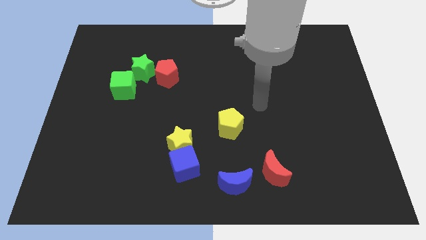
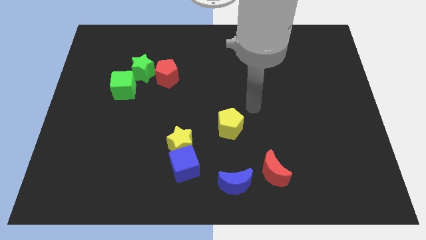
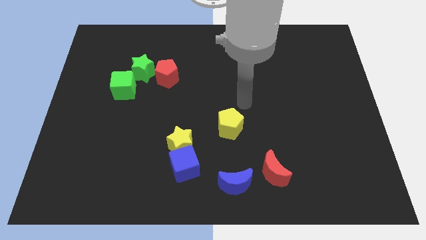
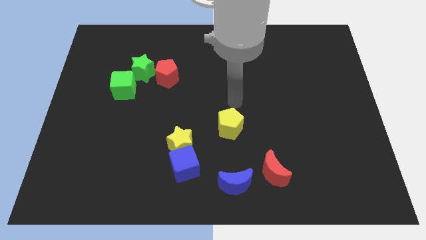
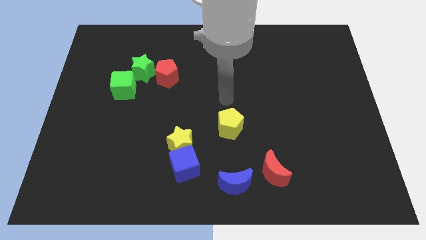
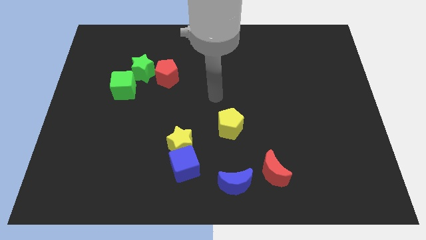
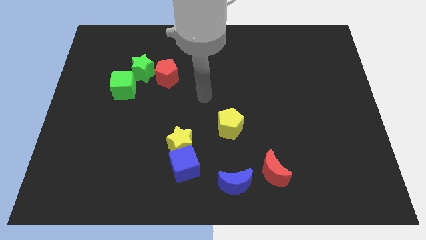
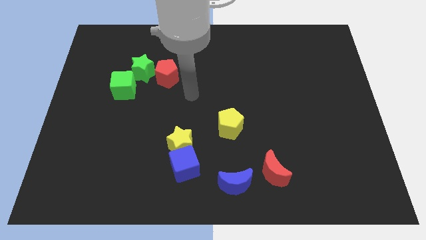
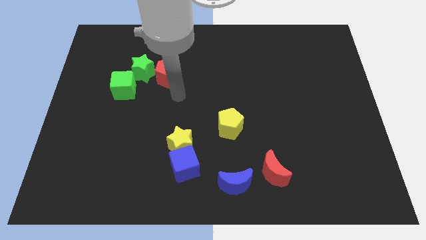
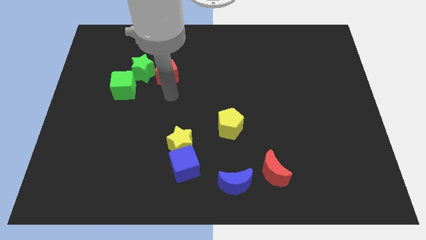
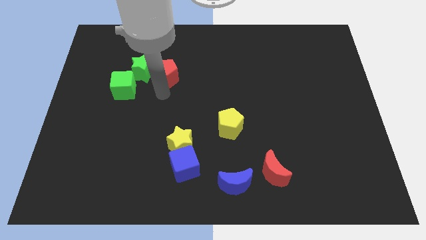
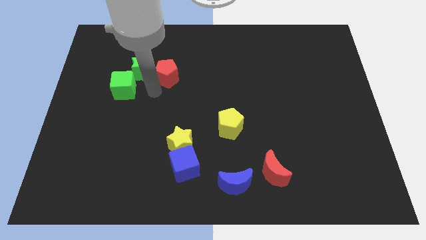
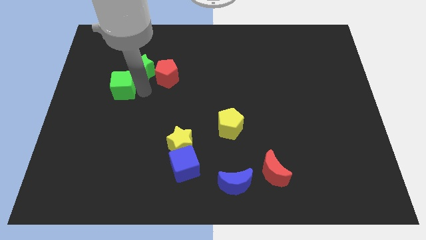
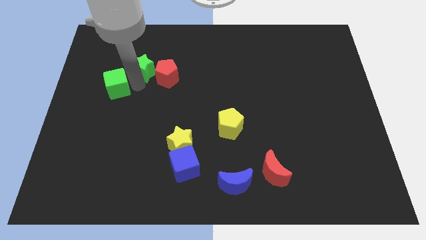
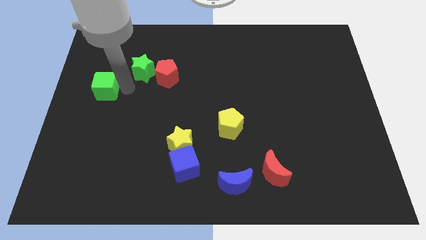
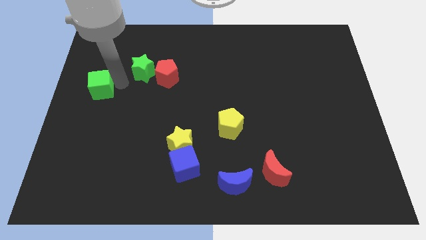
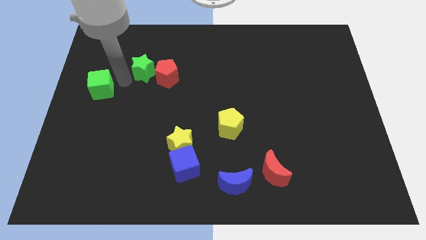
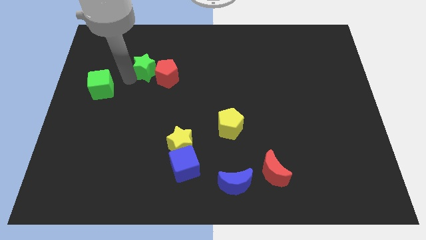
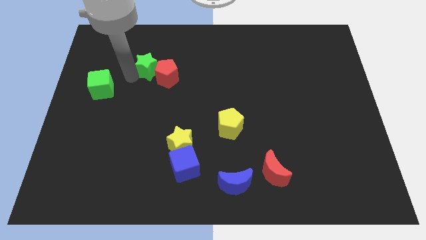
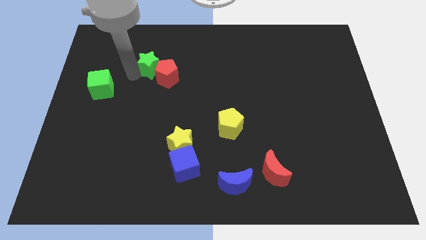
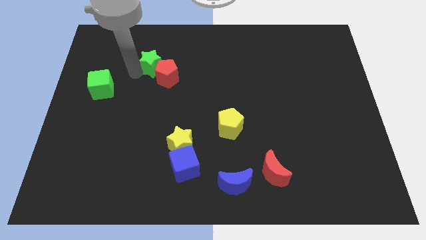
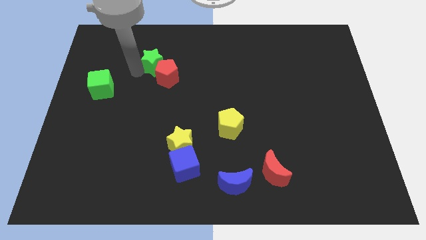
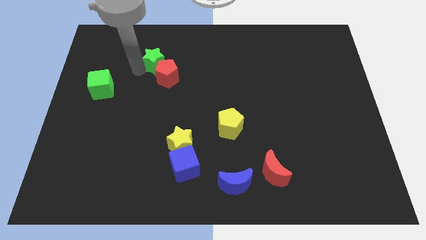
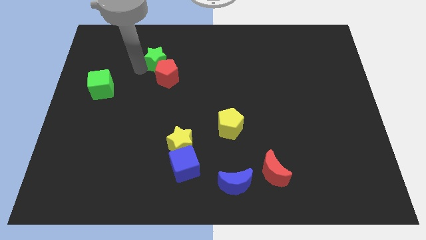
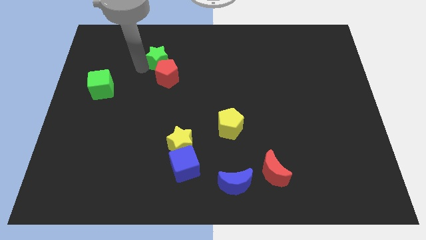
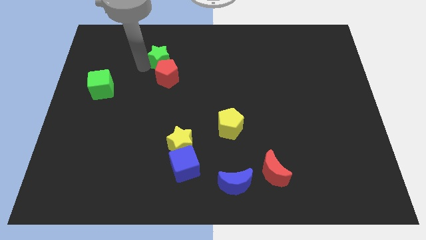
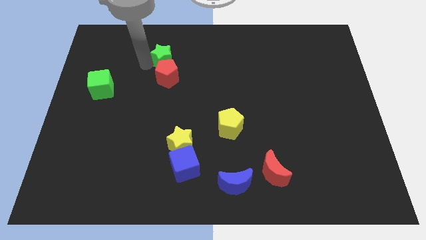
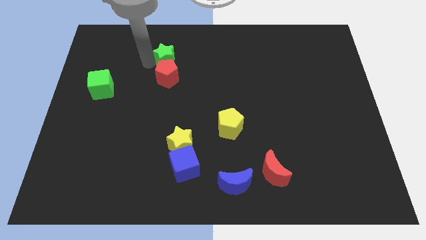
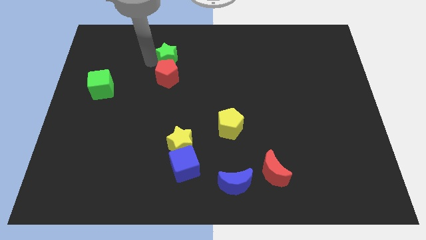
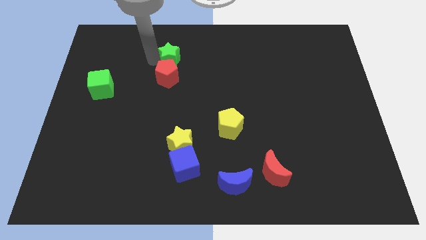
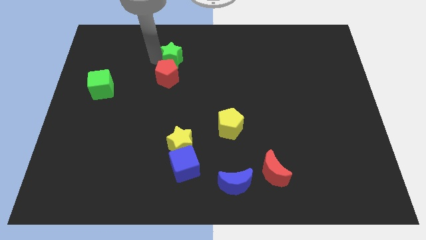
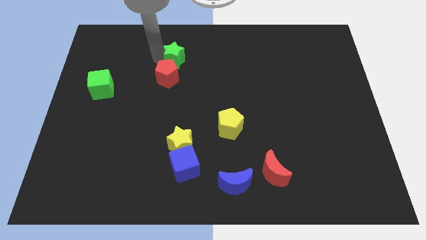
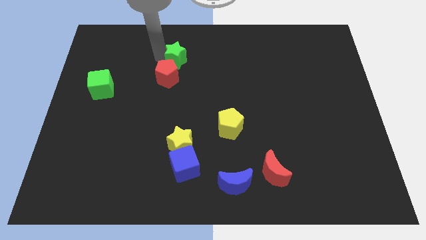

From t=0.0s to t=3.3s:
slightly push the green star to the right

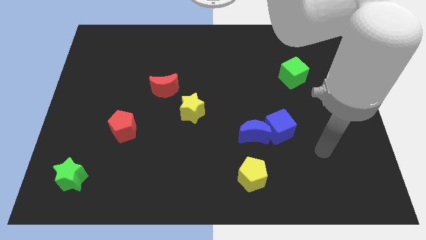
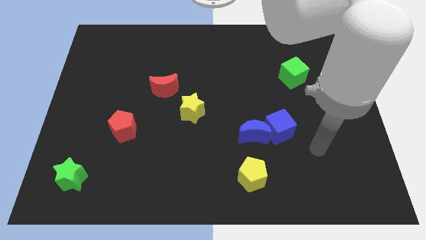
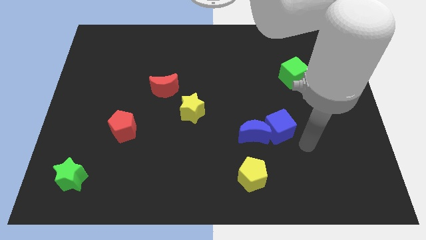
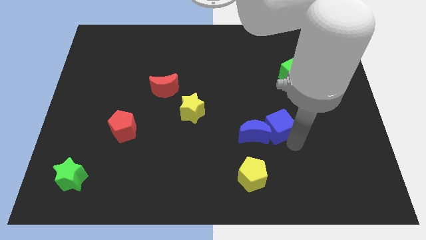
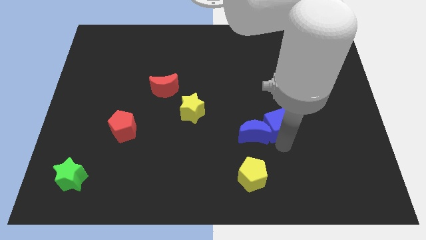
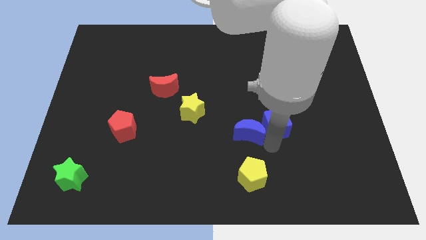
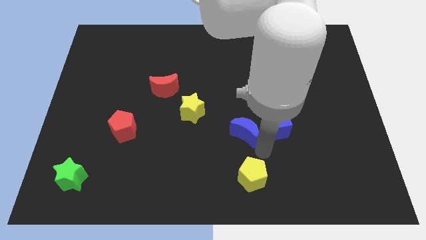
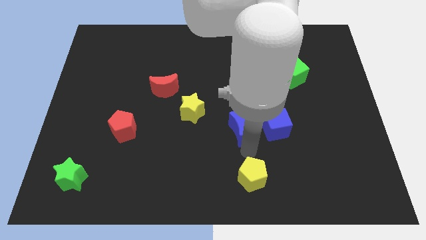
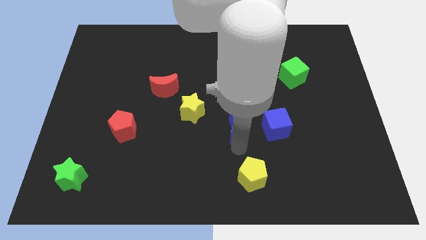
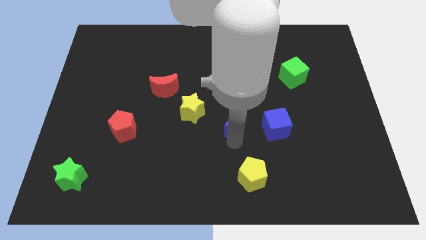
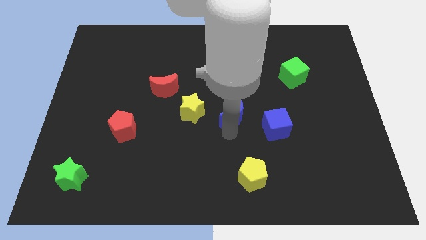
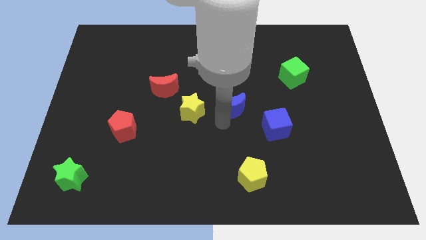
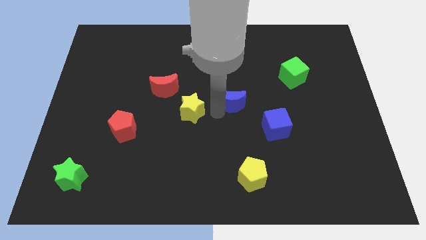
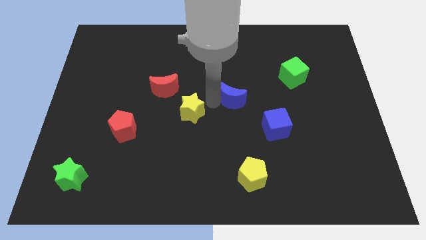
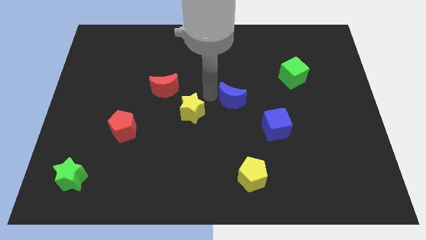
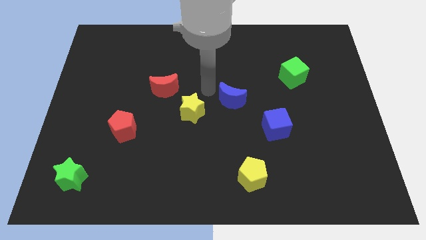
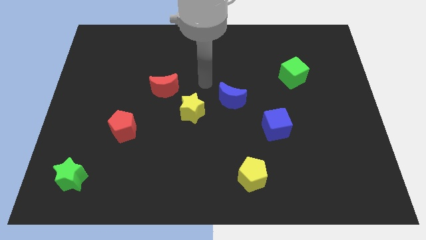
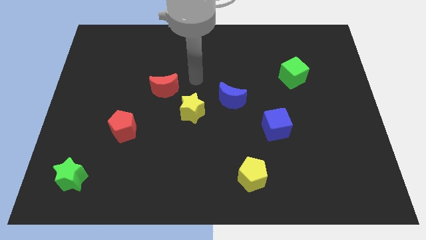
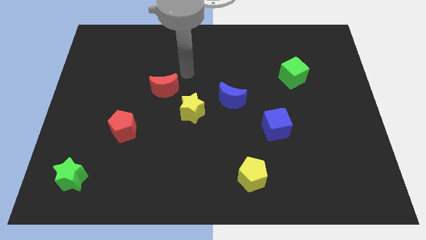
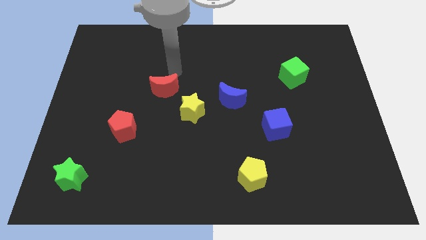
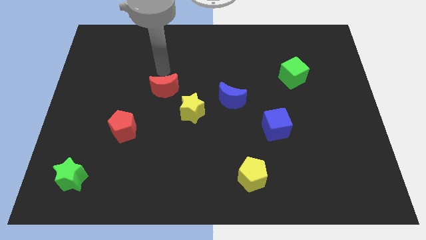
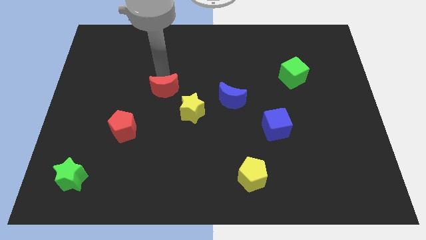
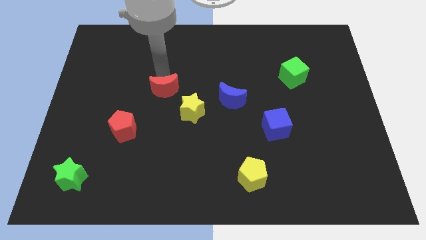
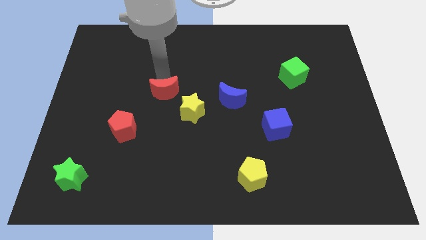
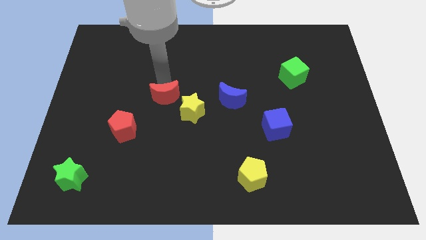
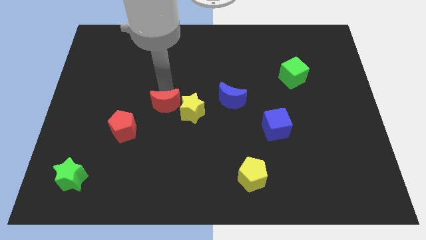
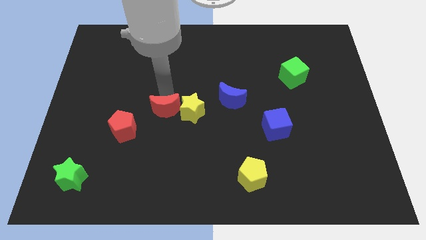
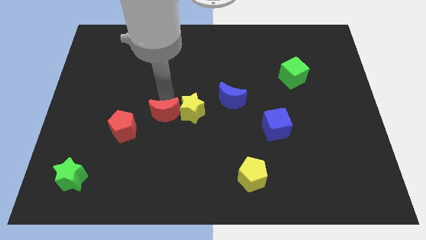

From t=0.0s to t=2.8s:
slide the red moon a little downwards

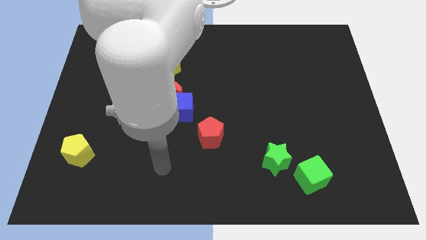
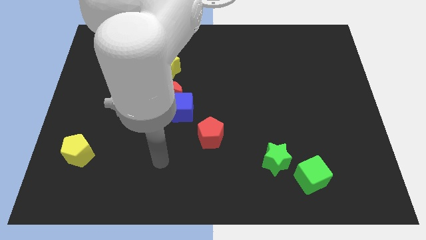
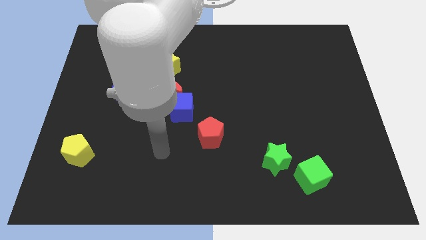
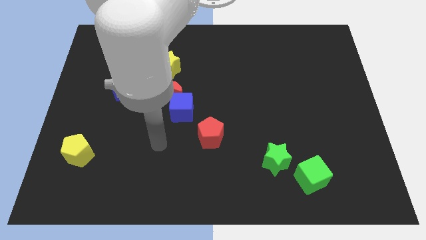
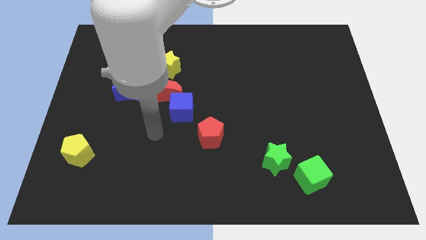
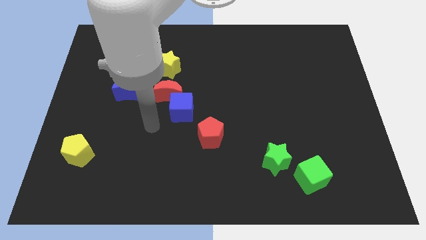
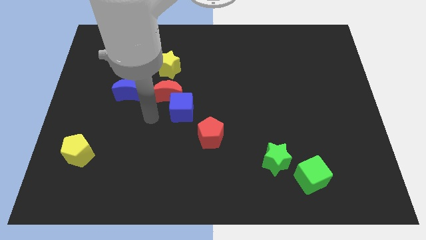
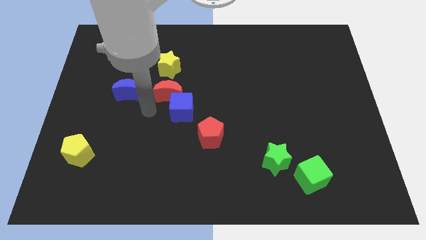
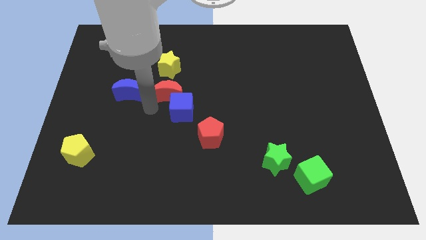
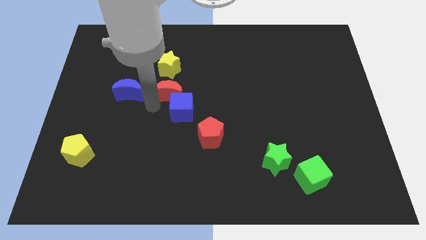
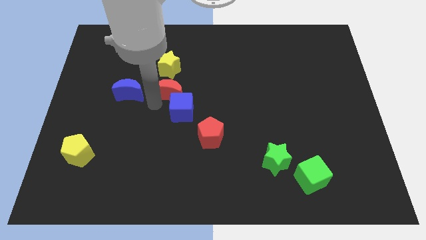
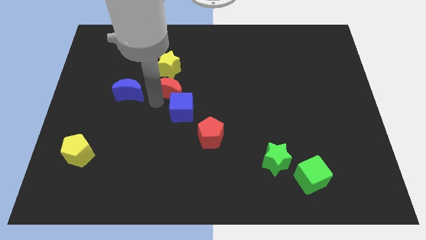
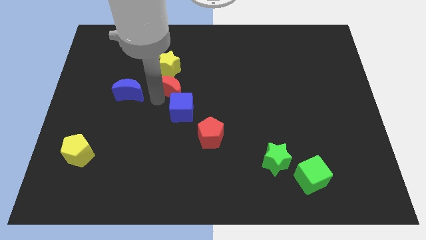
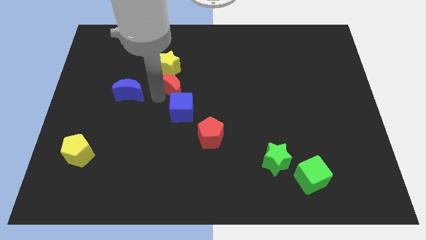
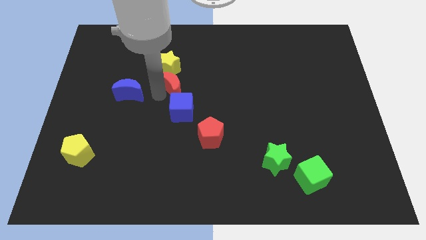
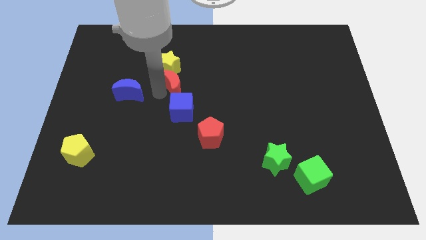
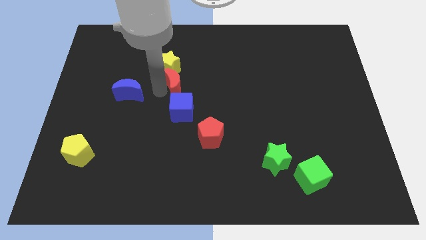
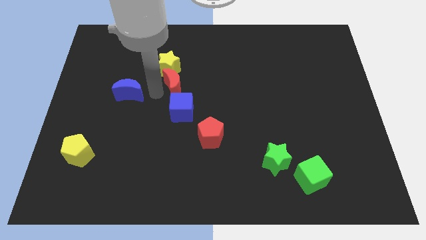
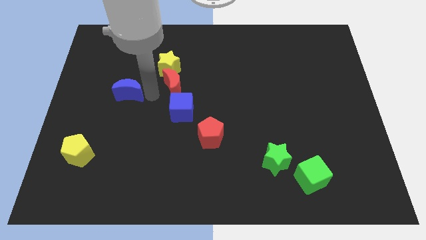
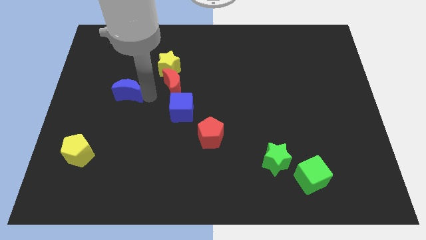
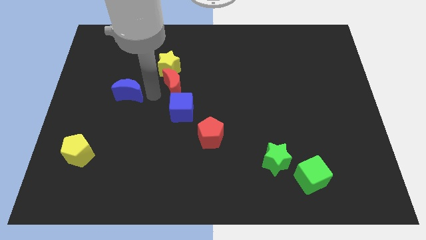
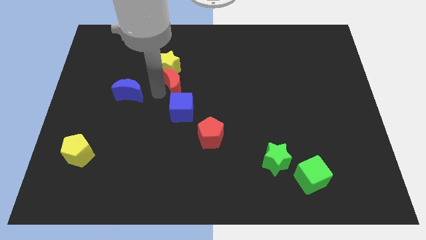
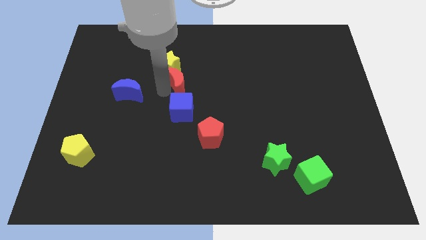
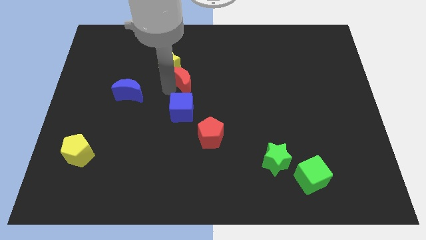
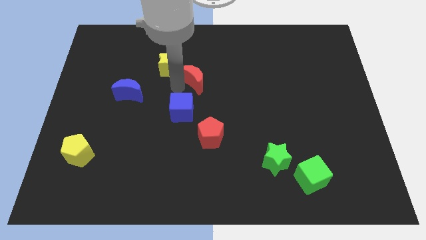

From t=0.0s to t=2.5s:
push the red moon slightly up and then right
